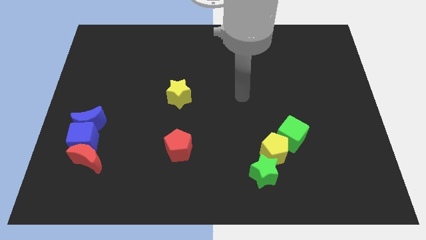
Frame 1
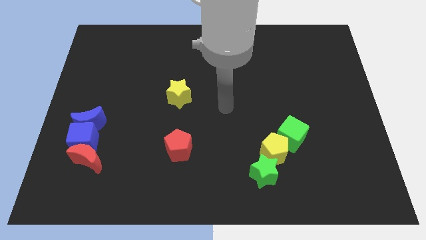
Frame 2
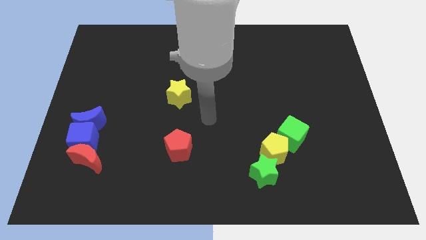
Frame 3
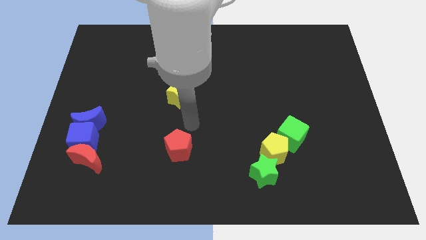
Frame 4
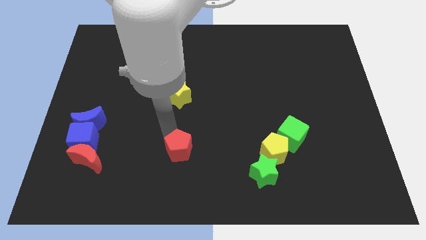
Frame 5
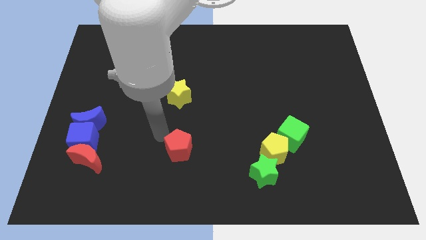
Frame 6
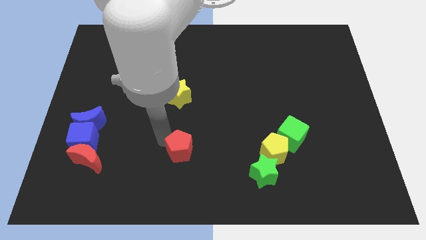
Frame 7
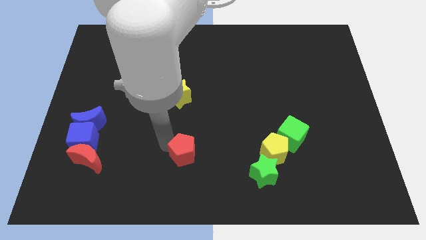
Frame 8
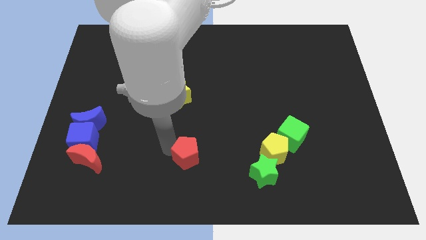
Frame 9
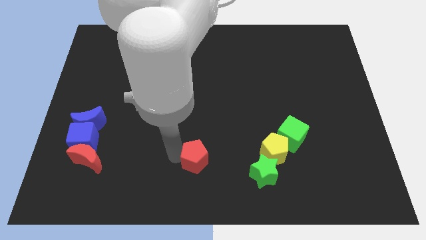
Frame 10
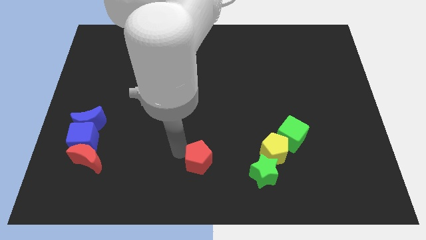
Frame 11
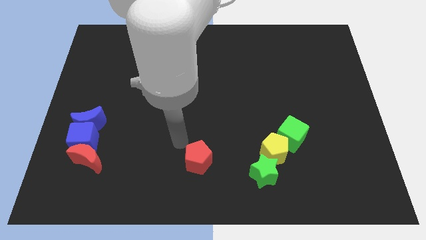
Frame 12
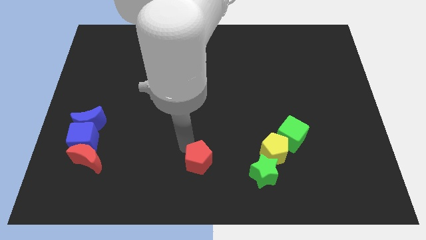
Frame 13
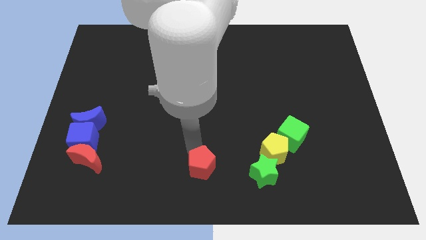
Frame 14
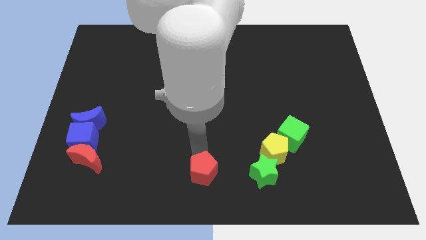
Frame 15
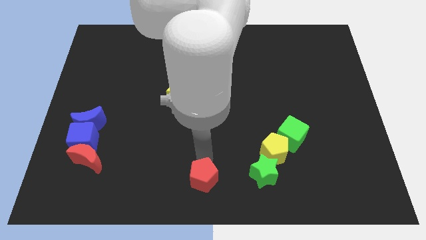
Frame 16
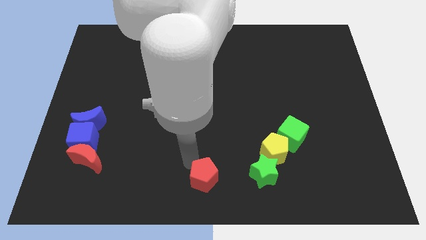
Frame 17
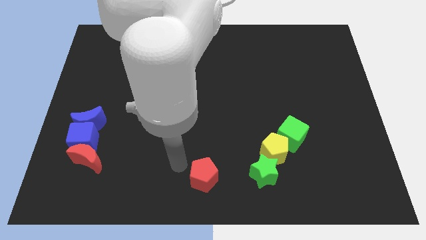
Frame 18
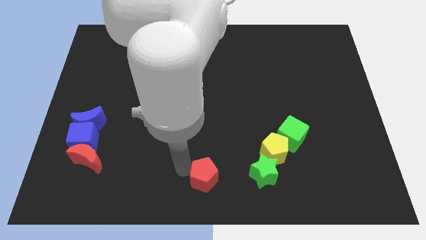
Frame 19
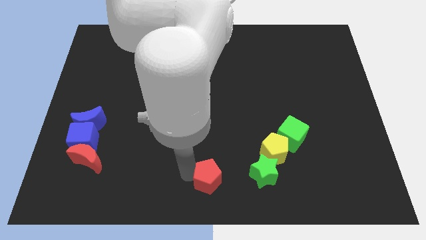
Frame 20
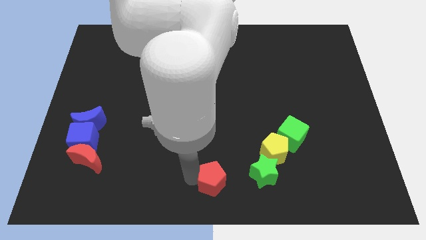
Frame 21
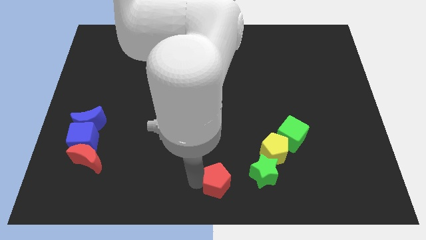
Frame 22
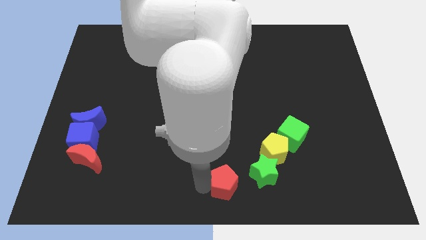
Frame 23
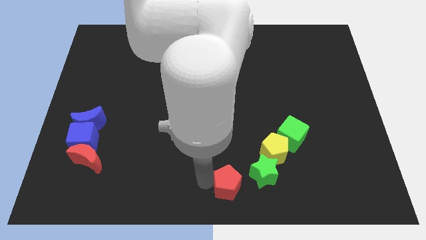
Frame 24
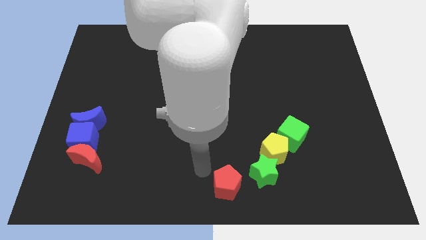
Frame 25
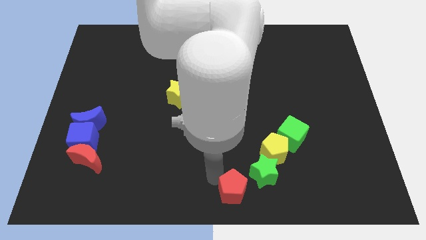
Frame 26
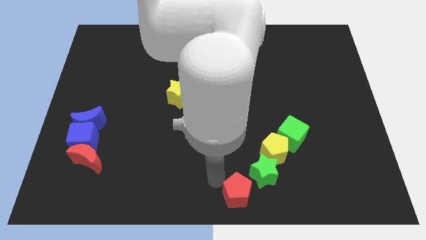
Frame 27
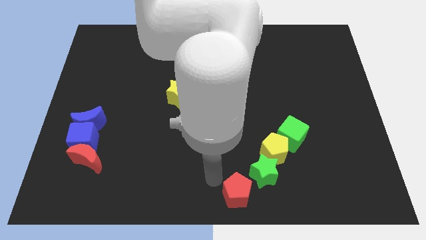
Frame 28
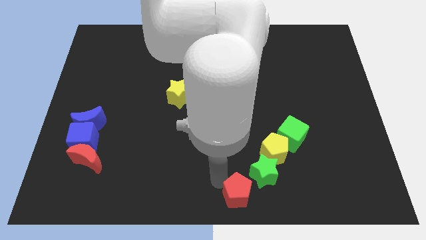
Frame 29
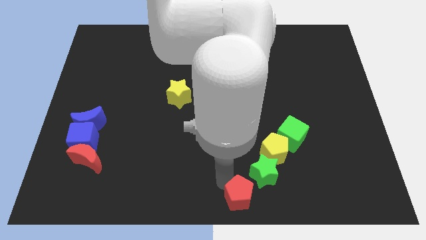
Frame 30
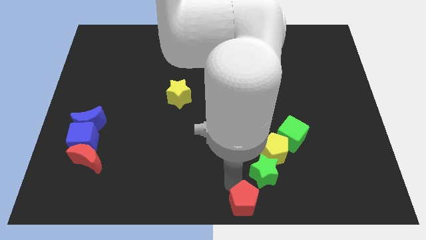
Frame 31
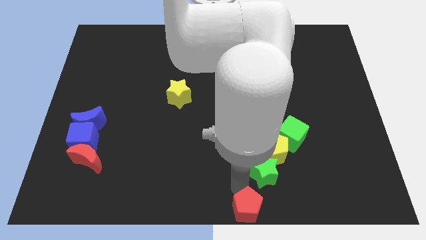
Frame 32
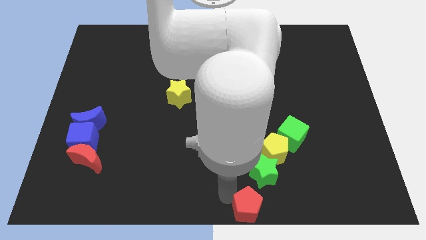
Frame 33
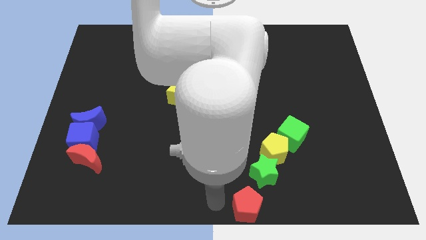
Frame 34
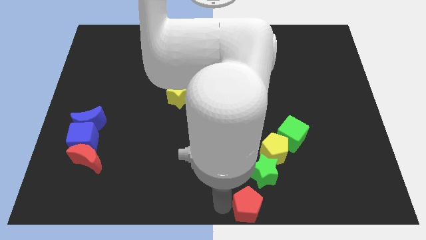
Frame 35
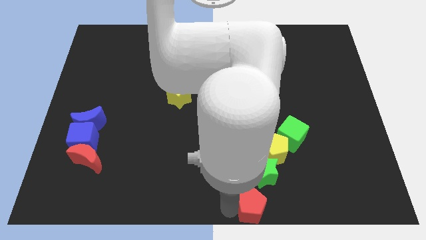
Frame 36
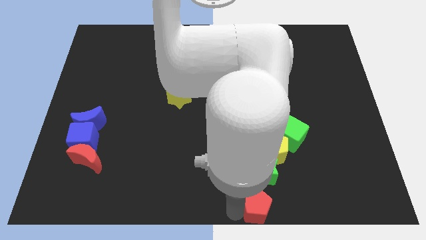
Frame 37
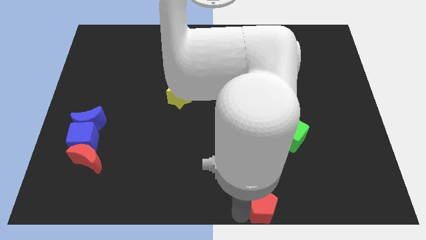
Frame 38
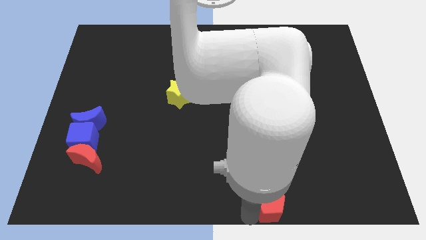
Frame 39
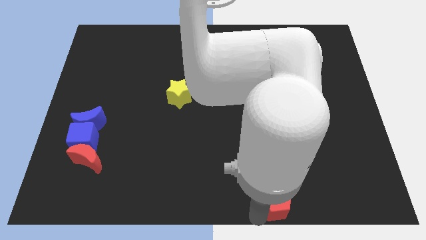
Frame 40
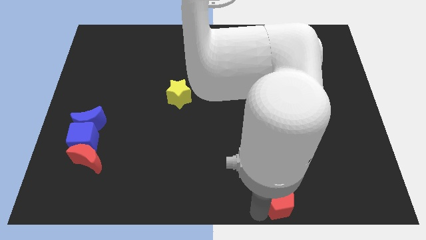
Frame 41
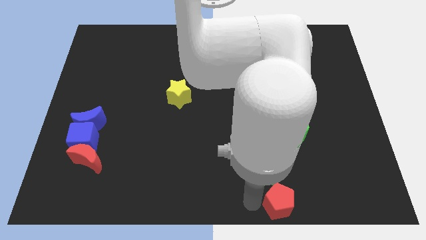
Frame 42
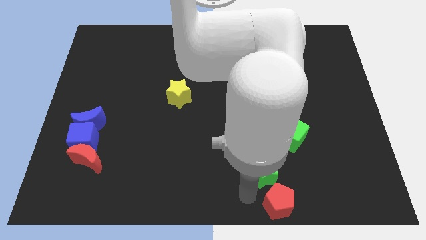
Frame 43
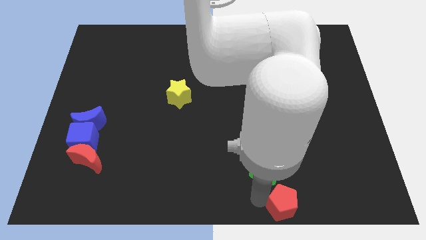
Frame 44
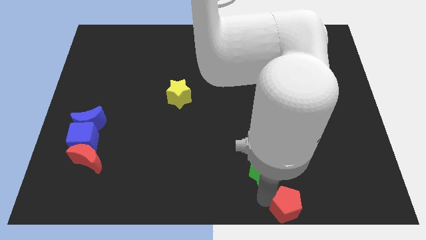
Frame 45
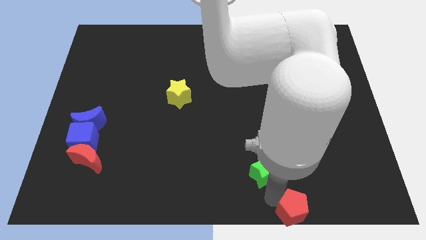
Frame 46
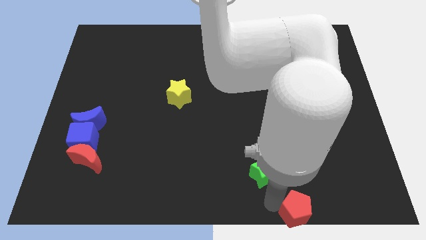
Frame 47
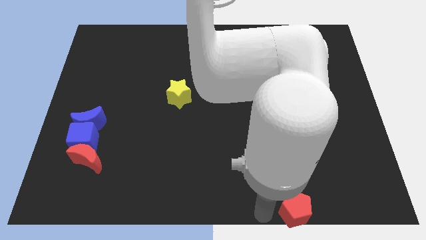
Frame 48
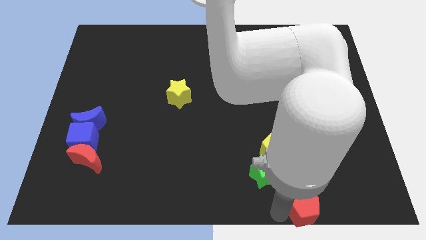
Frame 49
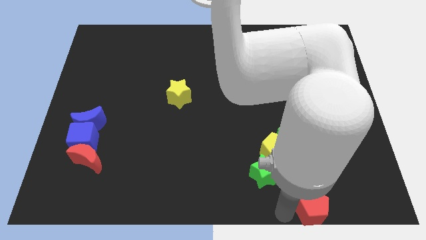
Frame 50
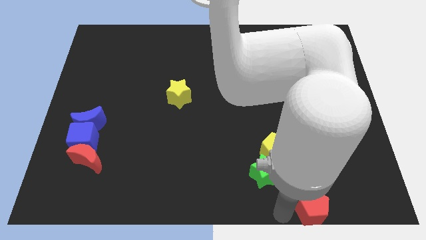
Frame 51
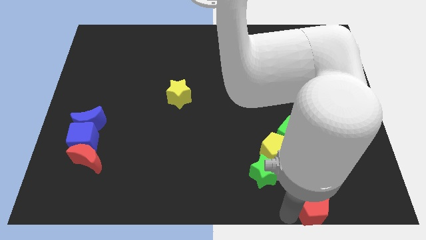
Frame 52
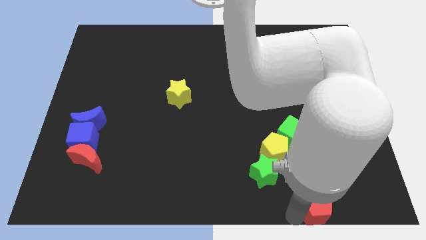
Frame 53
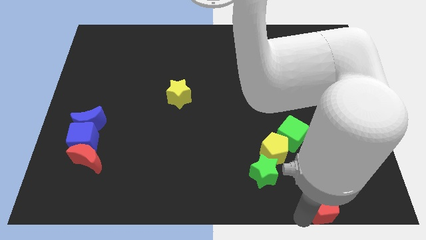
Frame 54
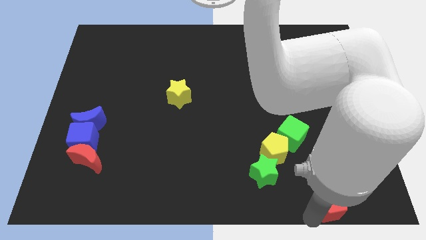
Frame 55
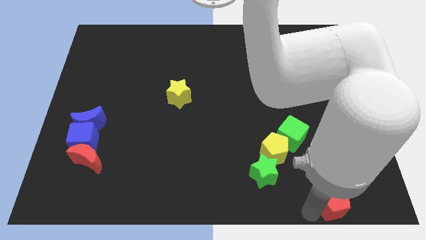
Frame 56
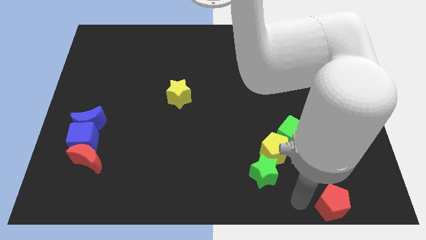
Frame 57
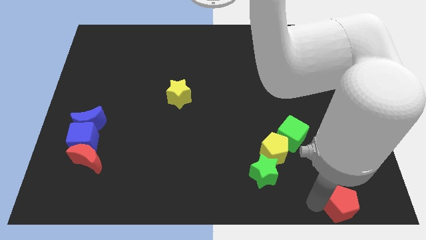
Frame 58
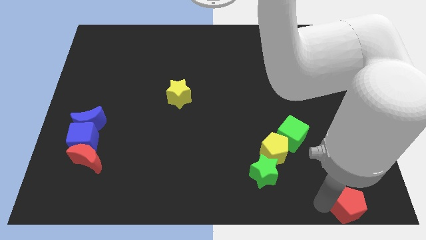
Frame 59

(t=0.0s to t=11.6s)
move the red pentagon to the bottom right
